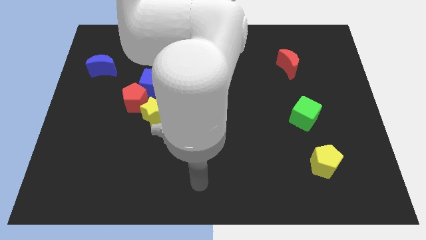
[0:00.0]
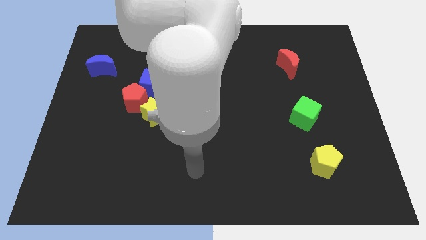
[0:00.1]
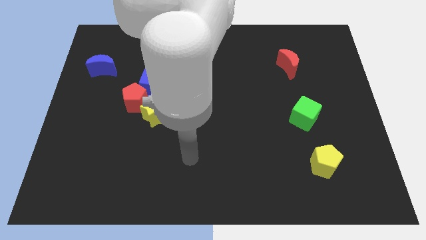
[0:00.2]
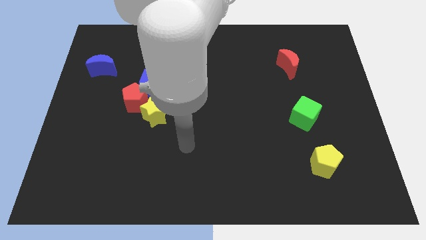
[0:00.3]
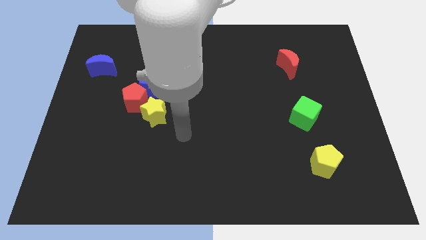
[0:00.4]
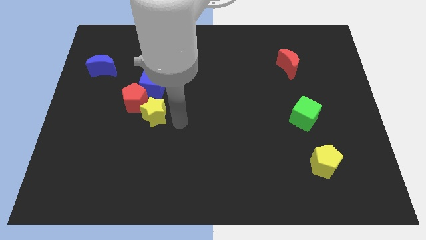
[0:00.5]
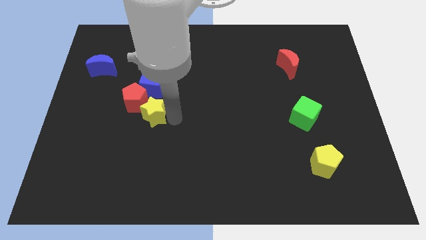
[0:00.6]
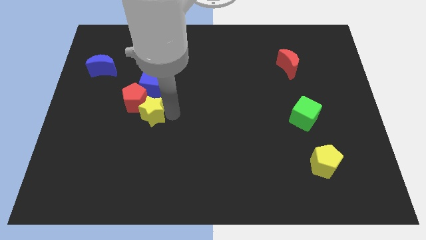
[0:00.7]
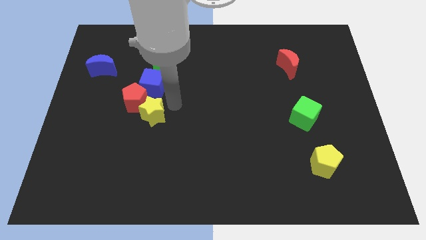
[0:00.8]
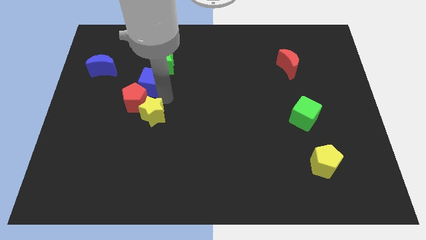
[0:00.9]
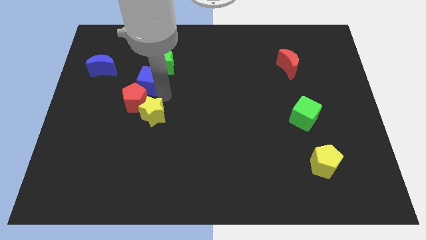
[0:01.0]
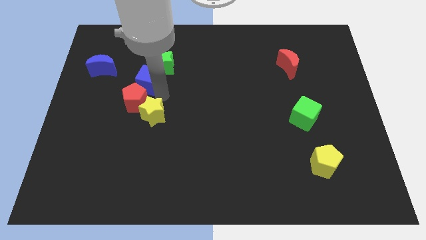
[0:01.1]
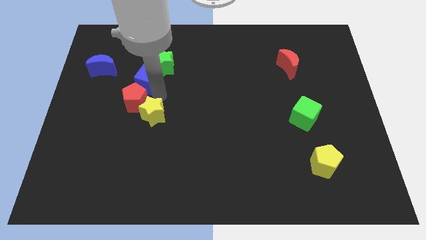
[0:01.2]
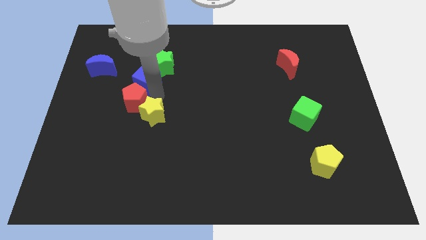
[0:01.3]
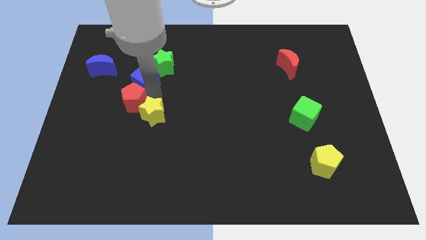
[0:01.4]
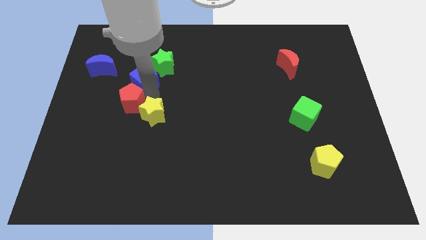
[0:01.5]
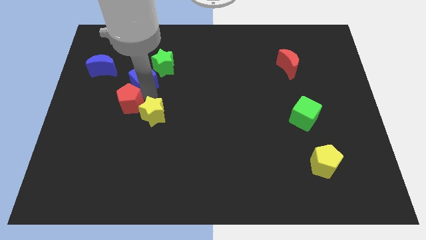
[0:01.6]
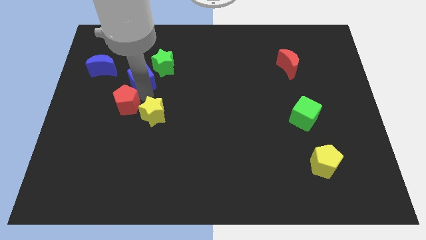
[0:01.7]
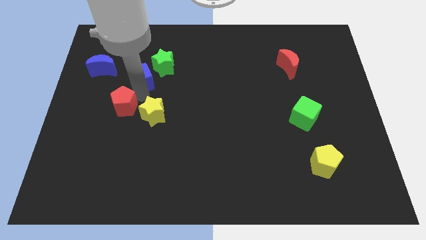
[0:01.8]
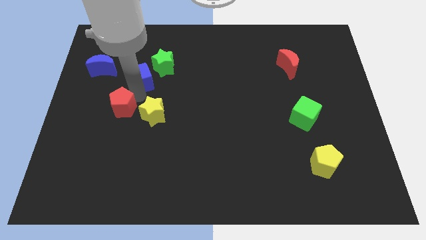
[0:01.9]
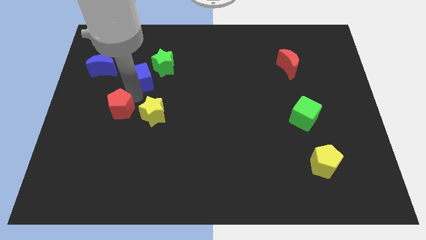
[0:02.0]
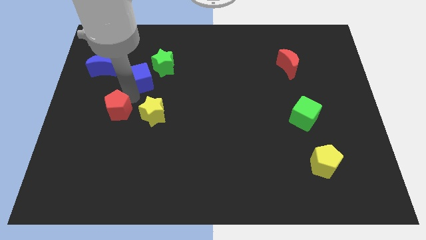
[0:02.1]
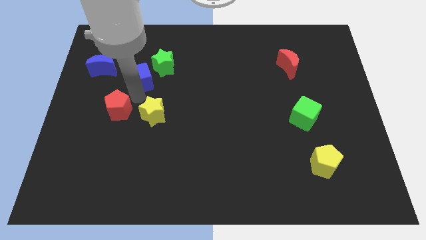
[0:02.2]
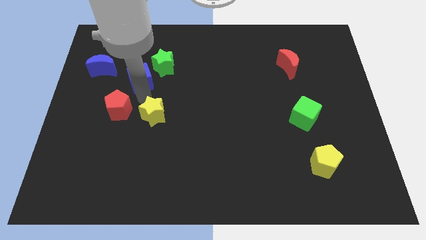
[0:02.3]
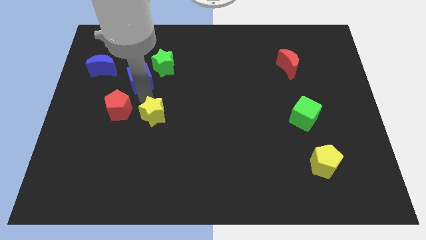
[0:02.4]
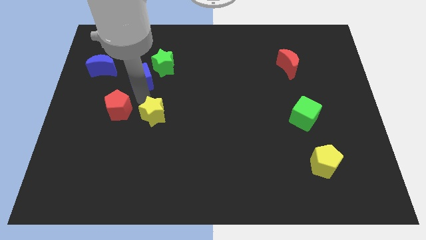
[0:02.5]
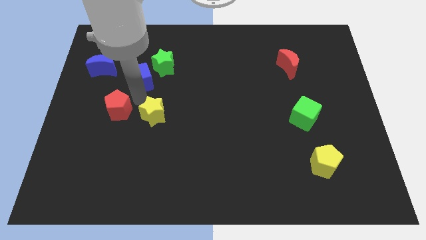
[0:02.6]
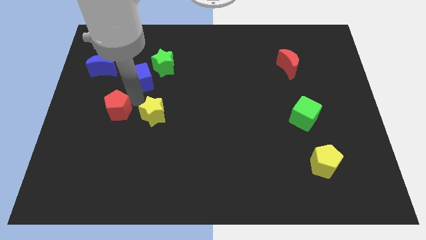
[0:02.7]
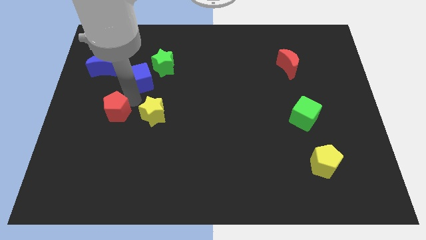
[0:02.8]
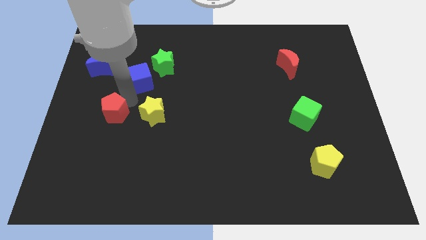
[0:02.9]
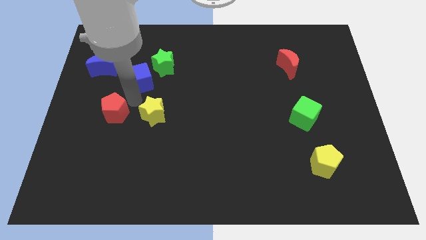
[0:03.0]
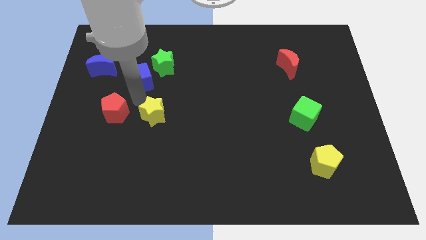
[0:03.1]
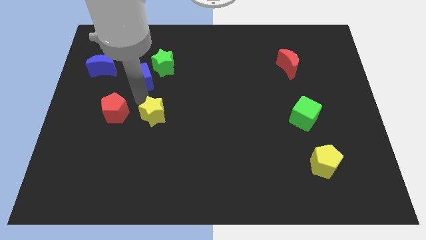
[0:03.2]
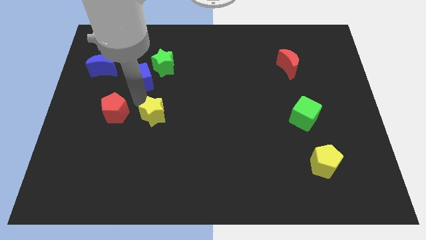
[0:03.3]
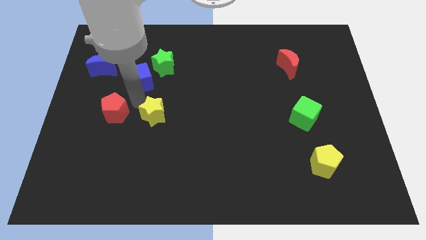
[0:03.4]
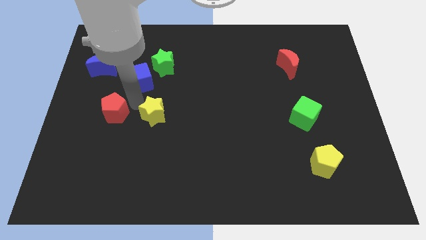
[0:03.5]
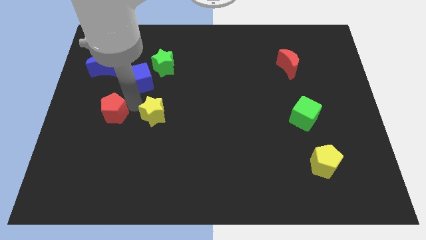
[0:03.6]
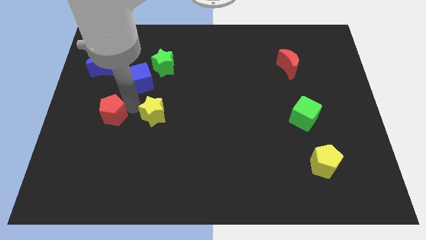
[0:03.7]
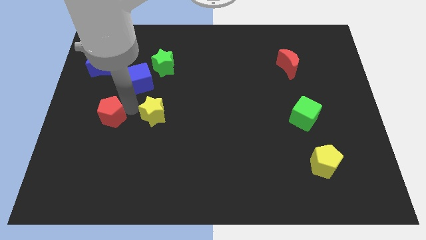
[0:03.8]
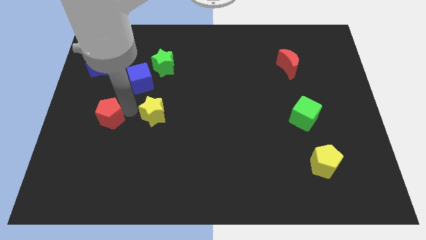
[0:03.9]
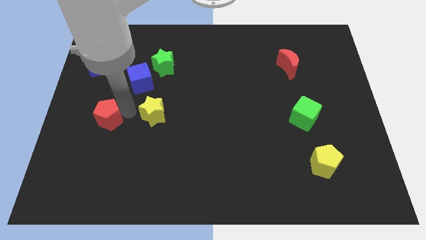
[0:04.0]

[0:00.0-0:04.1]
separate the red pentagon from the blue cube and yellow star

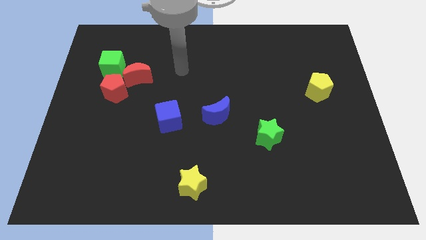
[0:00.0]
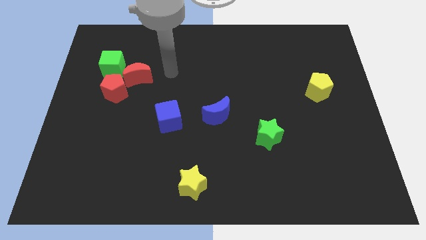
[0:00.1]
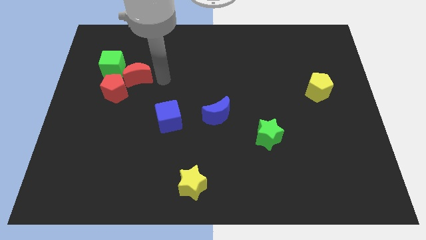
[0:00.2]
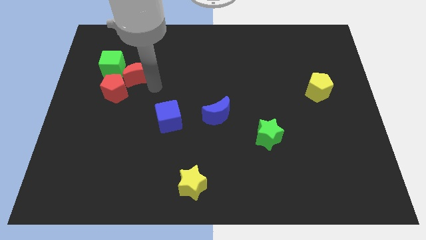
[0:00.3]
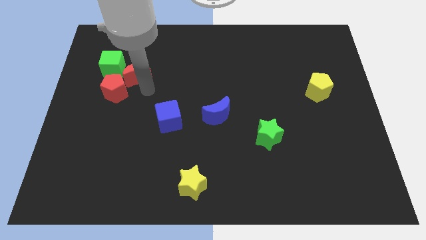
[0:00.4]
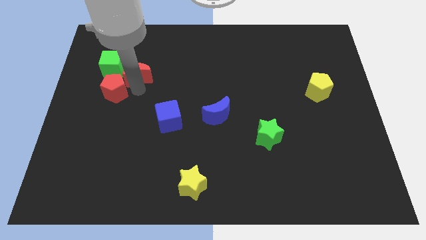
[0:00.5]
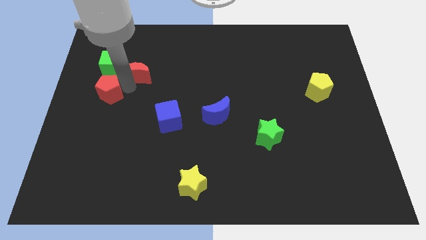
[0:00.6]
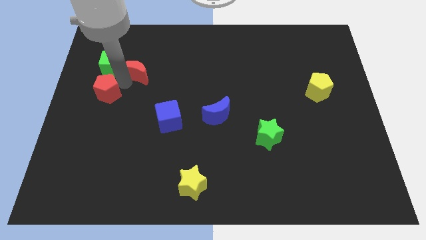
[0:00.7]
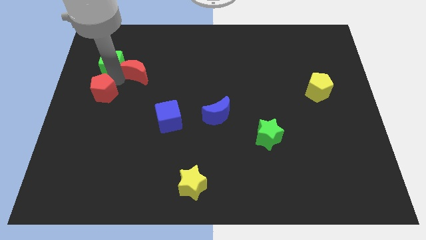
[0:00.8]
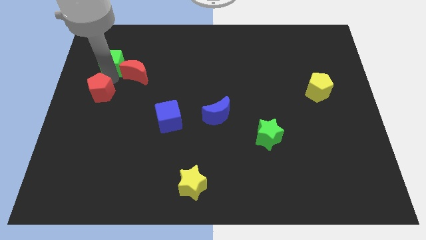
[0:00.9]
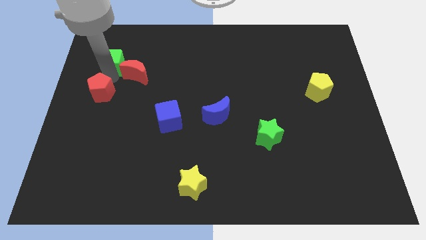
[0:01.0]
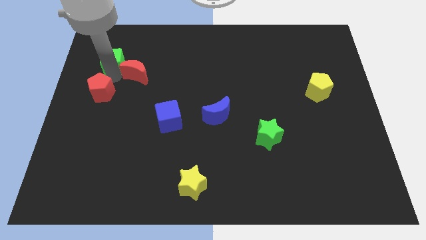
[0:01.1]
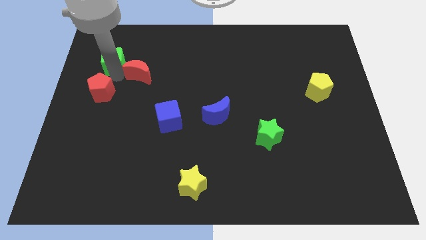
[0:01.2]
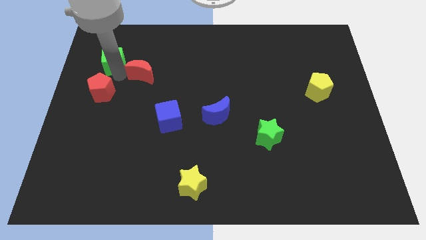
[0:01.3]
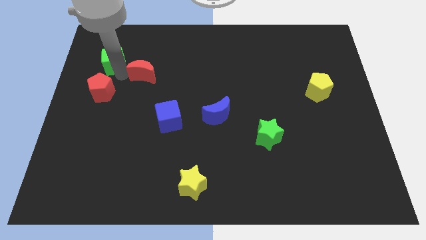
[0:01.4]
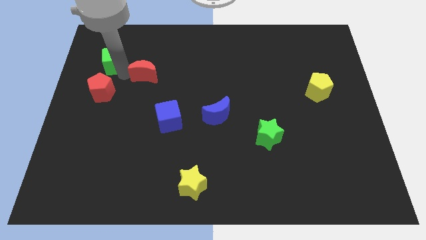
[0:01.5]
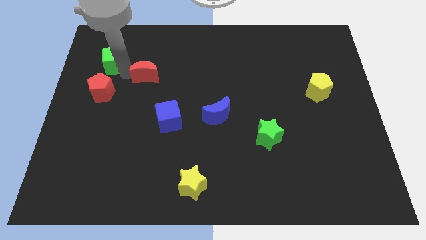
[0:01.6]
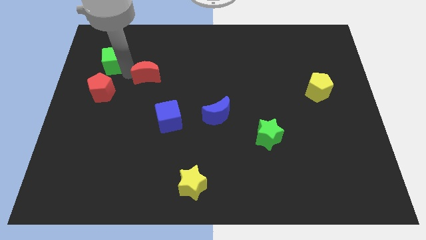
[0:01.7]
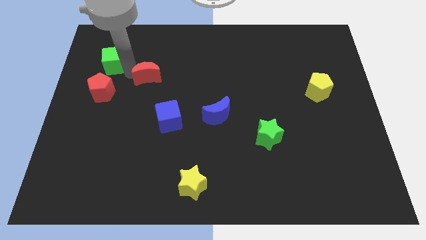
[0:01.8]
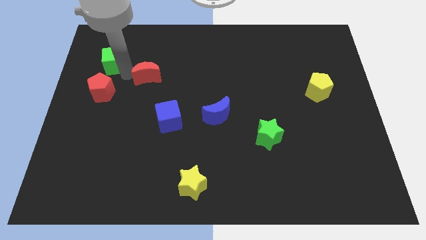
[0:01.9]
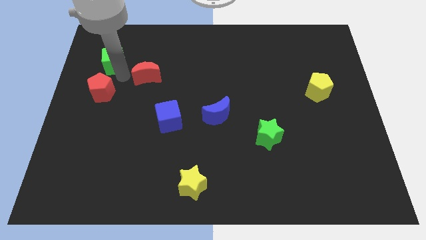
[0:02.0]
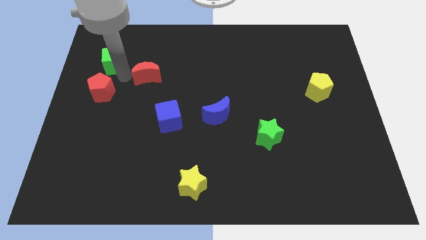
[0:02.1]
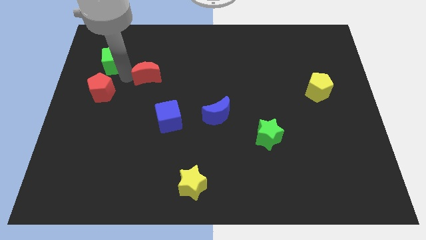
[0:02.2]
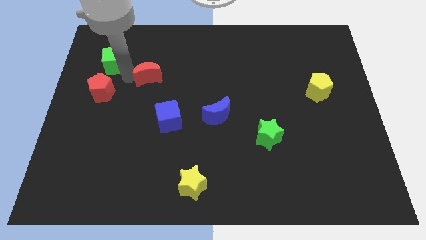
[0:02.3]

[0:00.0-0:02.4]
pull the red moon apart from the red pentagon and green cube

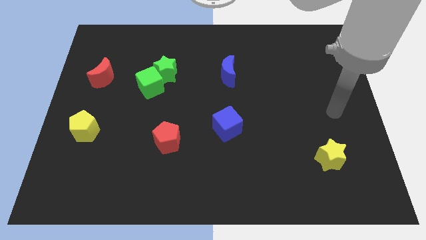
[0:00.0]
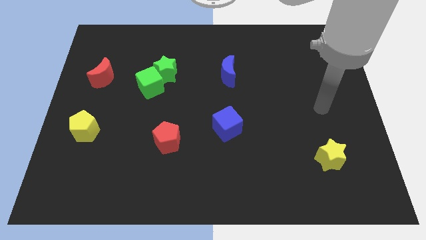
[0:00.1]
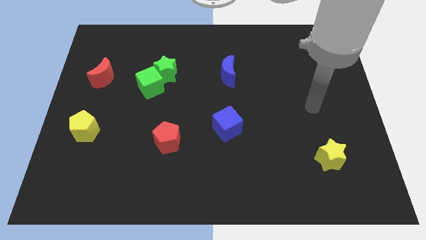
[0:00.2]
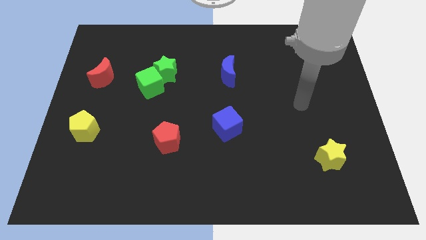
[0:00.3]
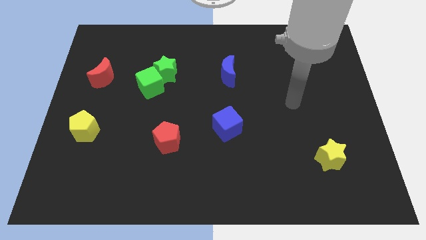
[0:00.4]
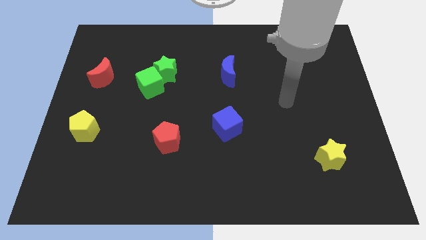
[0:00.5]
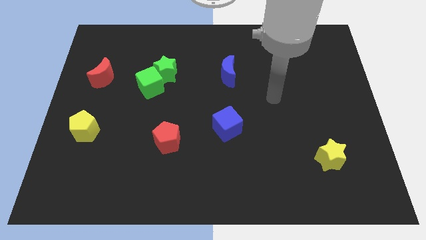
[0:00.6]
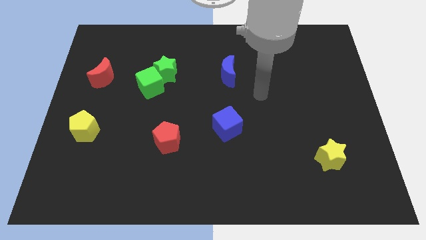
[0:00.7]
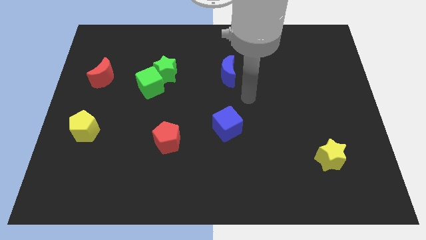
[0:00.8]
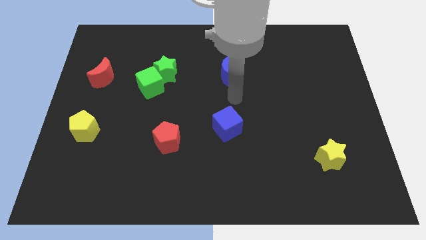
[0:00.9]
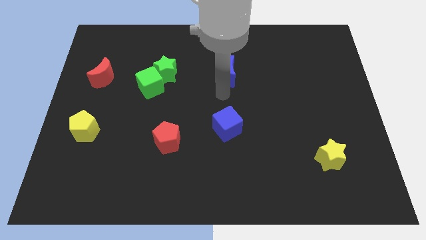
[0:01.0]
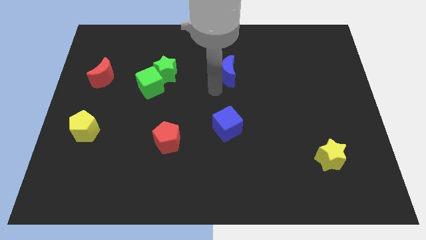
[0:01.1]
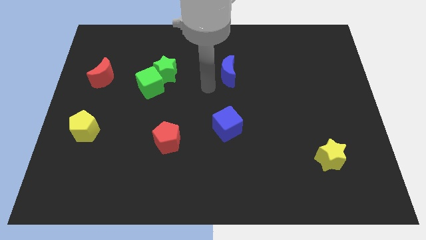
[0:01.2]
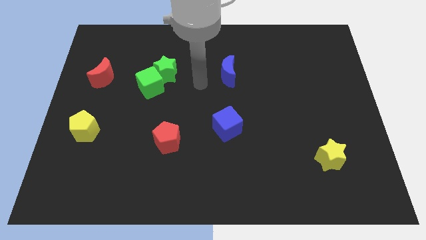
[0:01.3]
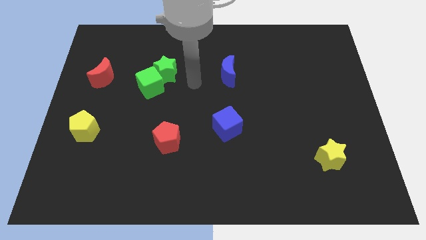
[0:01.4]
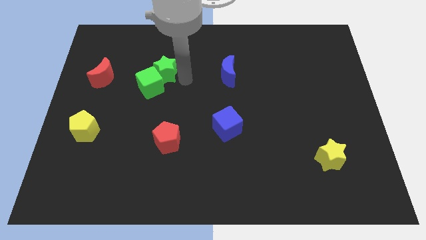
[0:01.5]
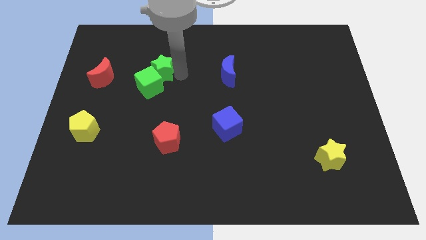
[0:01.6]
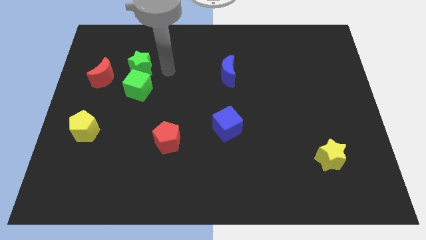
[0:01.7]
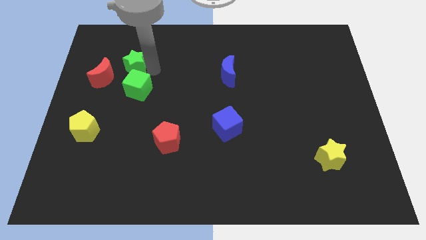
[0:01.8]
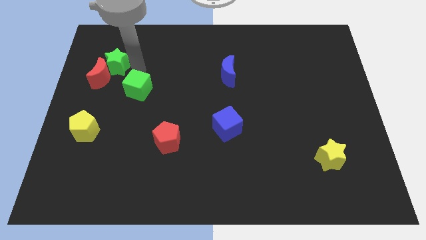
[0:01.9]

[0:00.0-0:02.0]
move the green cube away from the green star

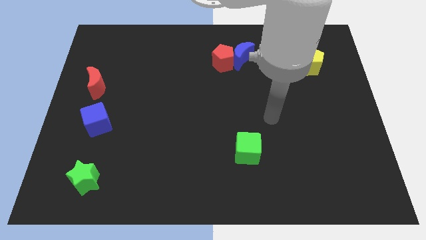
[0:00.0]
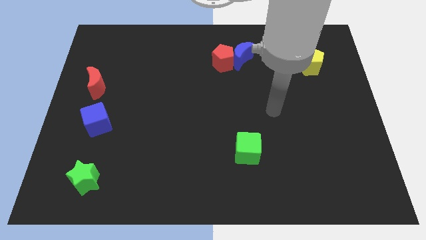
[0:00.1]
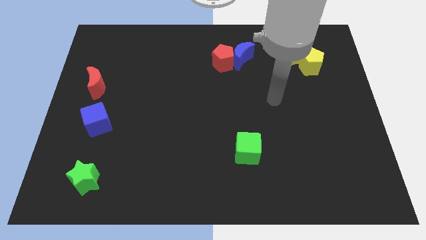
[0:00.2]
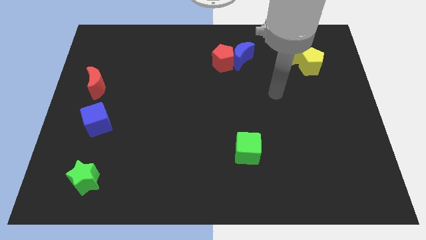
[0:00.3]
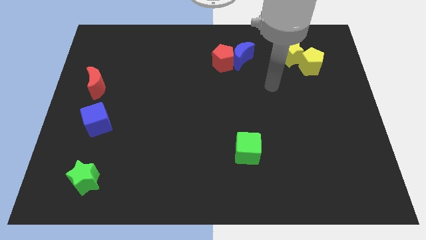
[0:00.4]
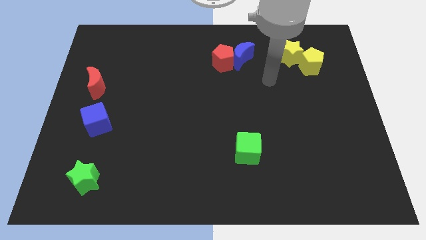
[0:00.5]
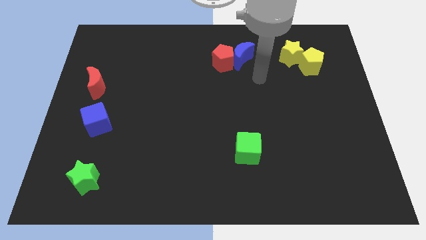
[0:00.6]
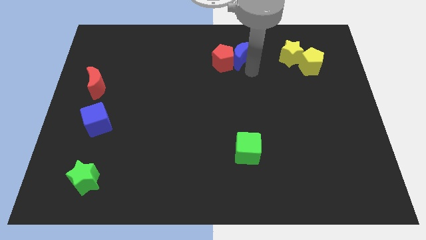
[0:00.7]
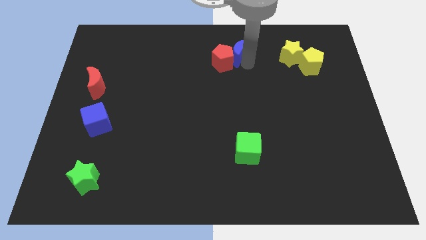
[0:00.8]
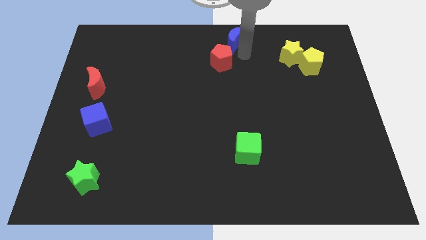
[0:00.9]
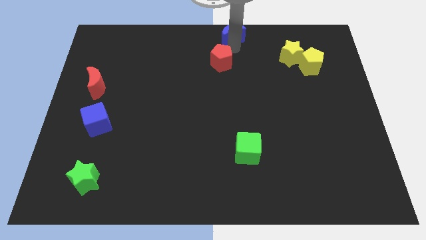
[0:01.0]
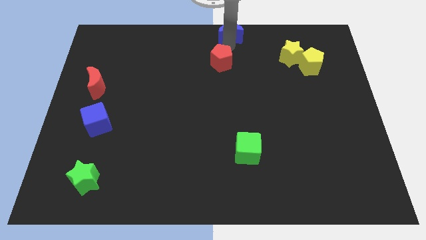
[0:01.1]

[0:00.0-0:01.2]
move the red pentagon away from the blue moon
